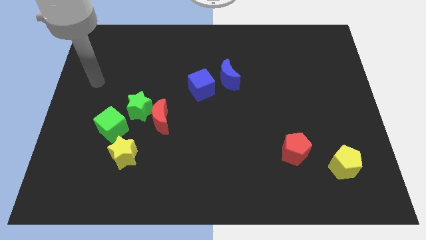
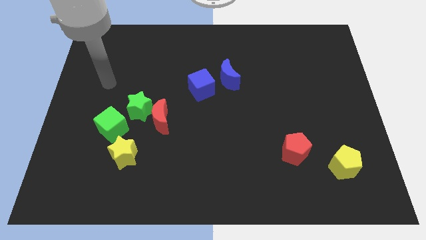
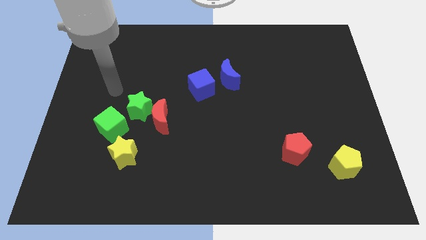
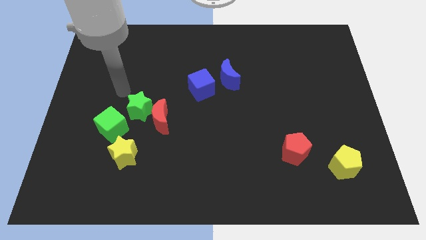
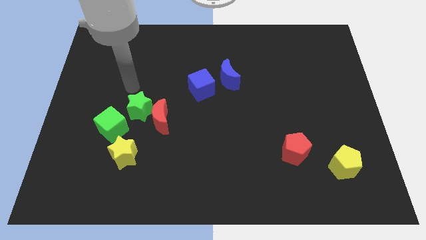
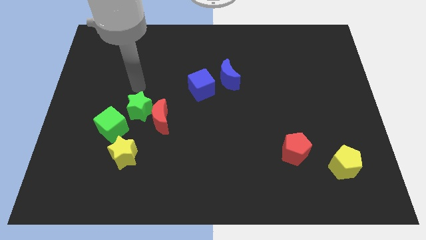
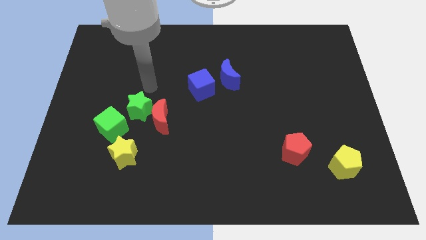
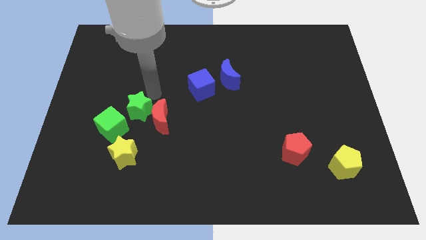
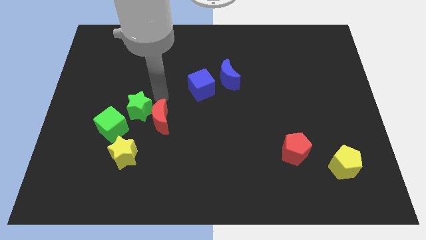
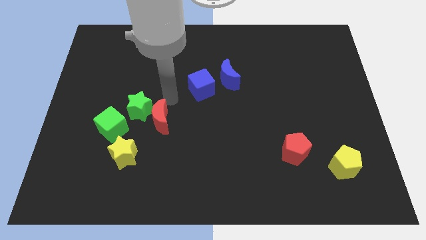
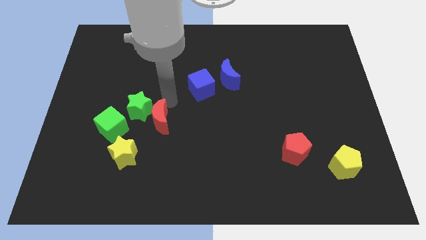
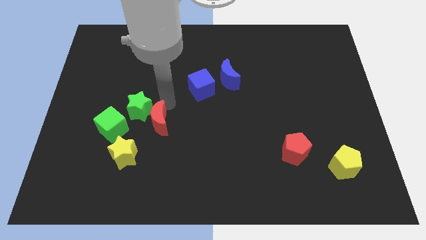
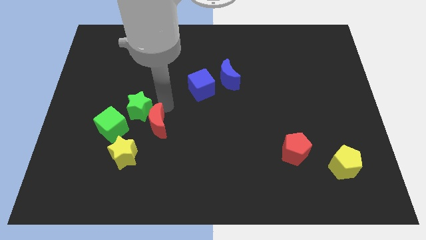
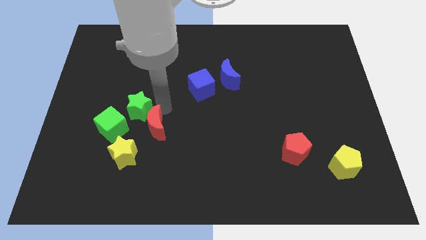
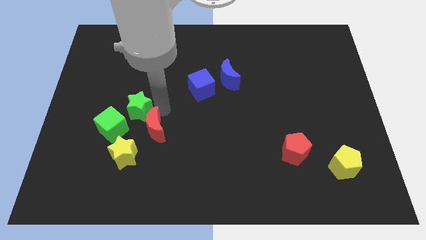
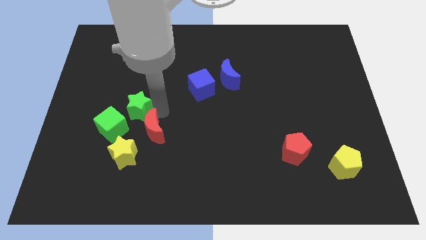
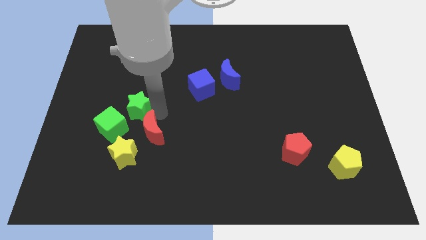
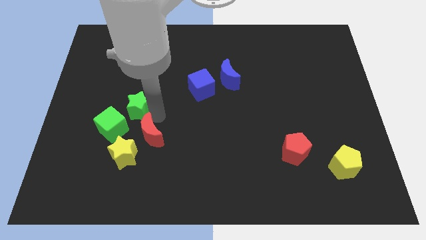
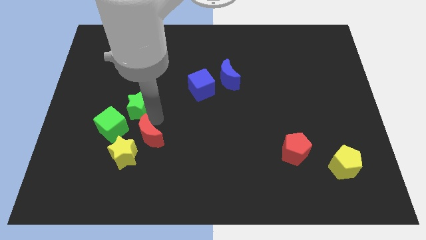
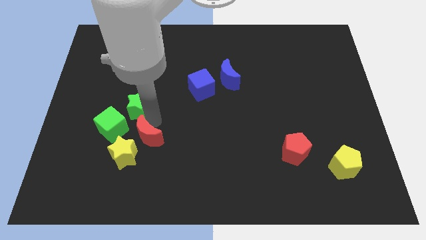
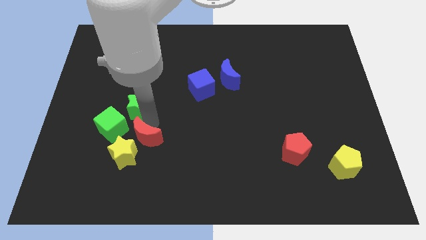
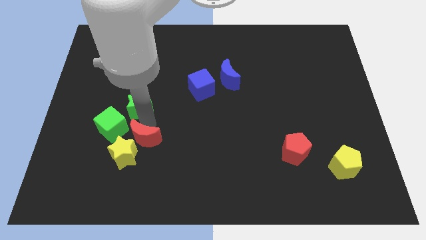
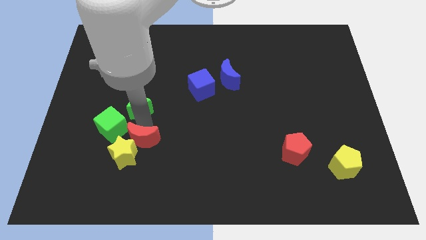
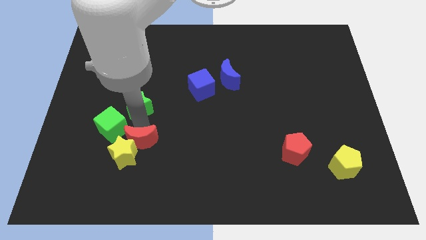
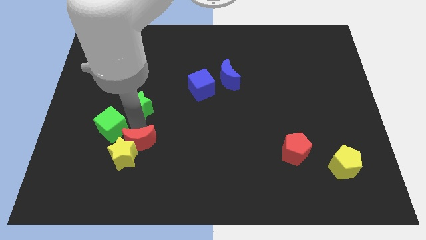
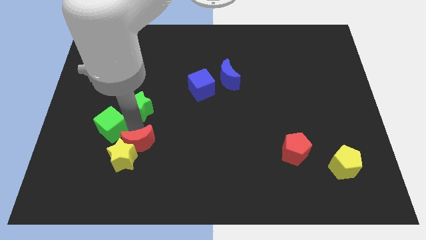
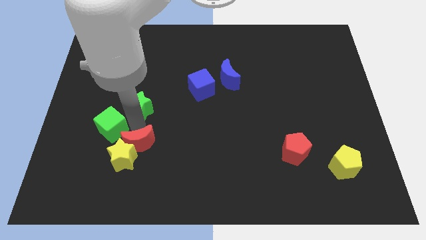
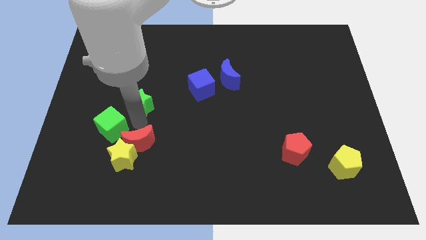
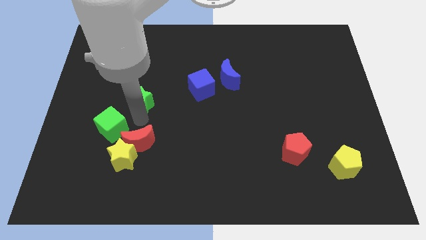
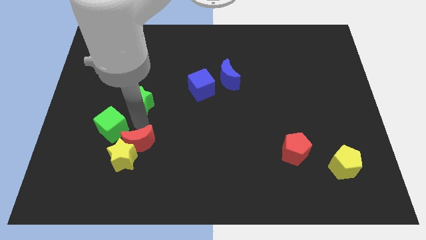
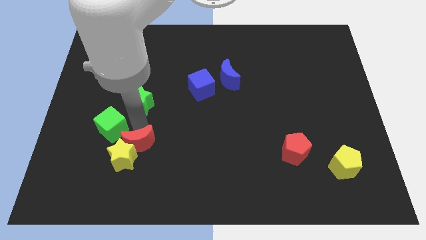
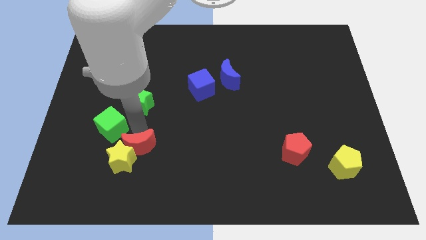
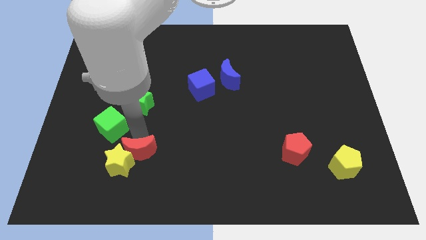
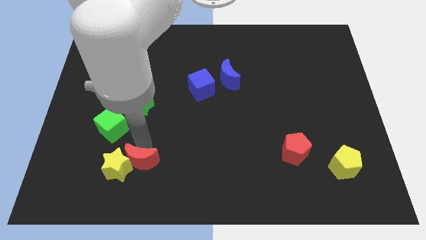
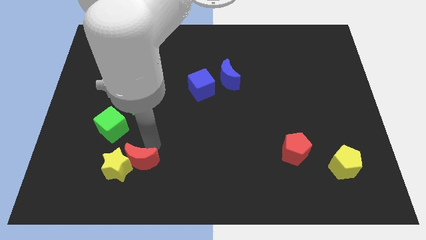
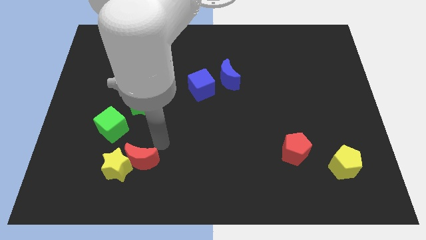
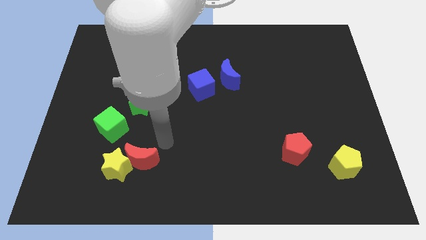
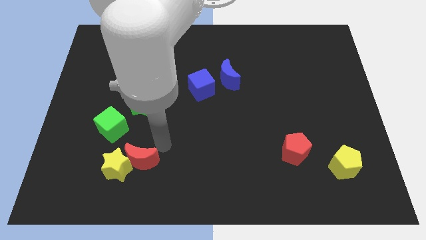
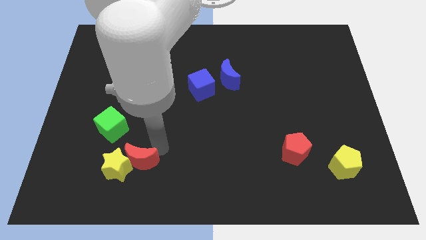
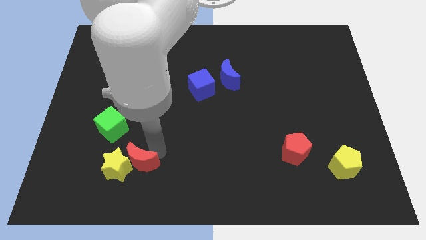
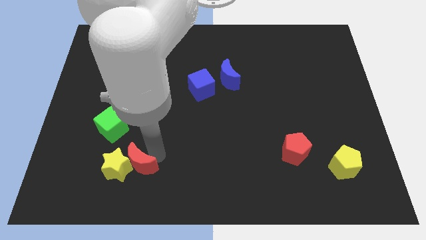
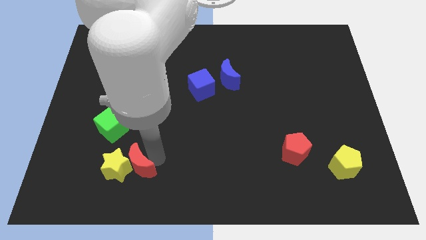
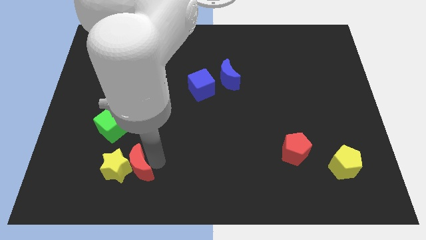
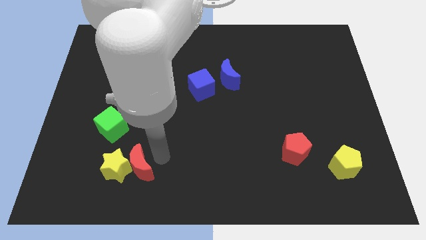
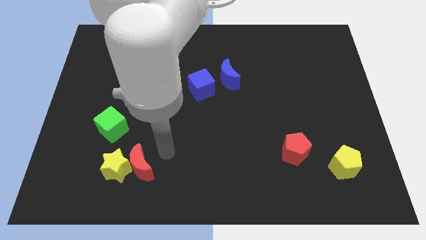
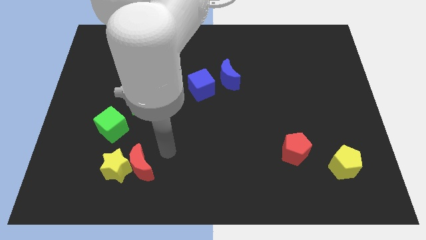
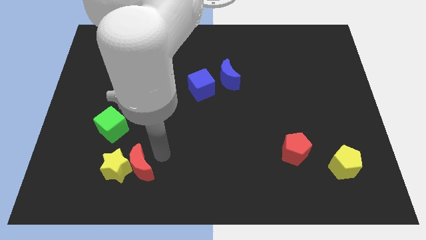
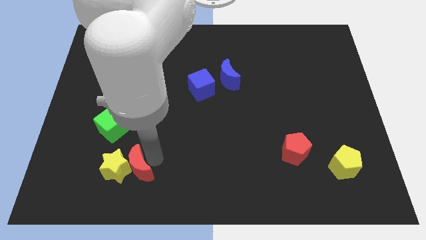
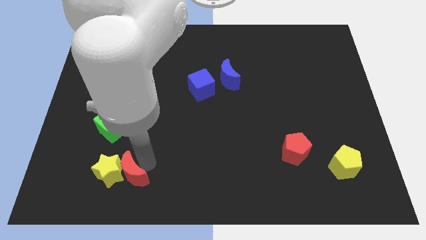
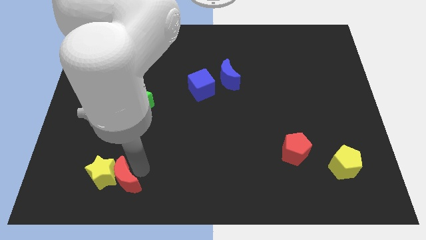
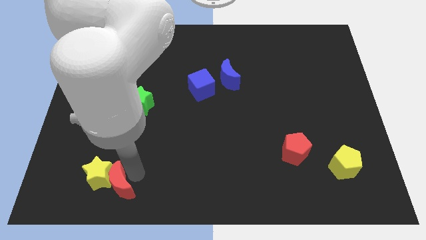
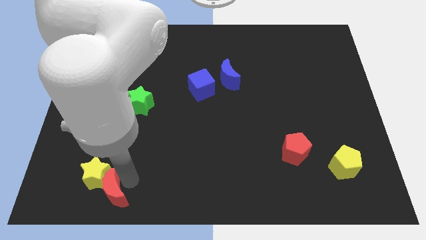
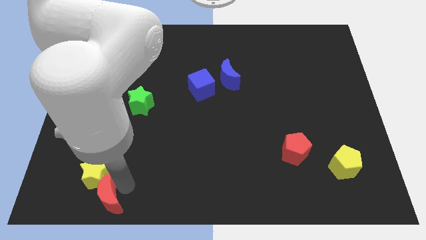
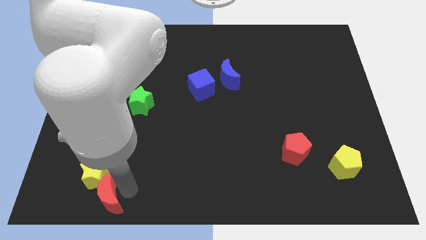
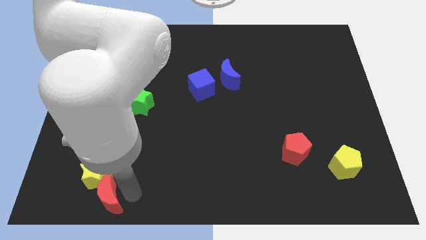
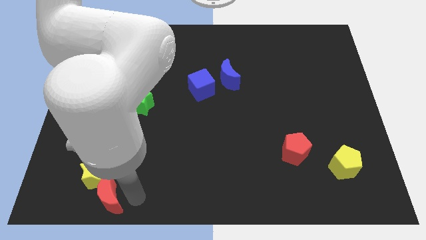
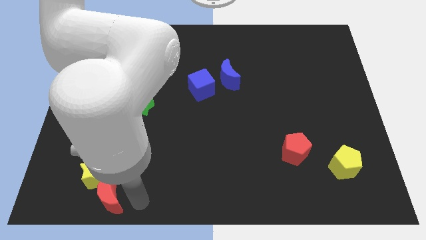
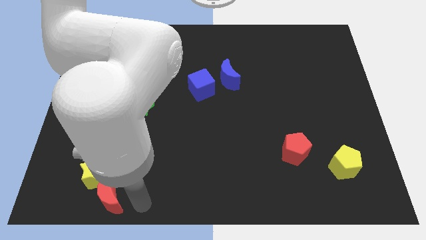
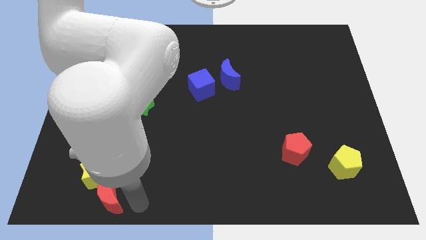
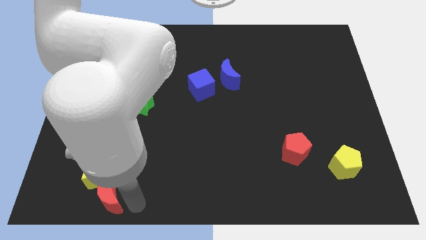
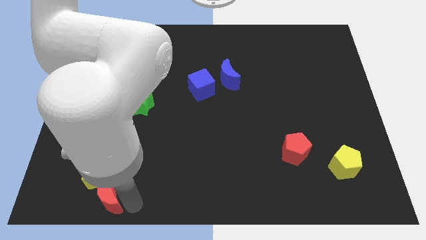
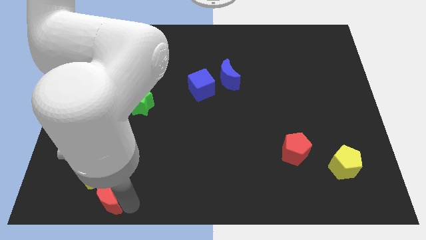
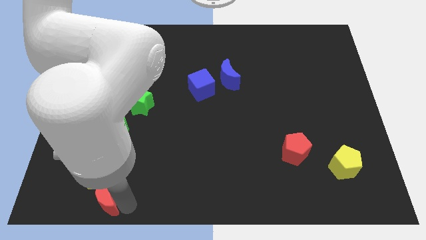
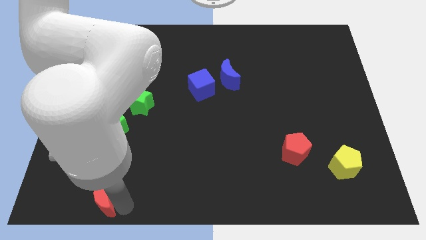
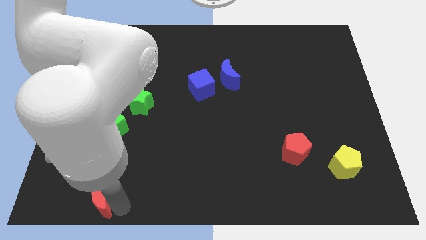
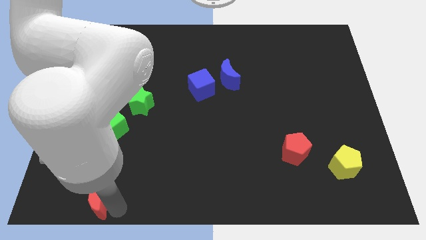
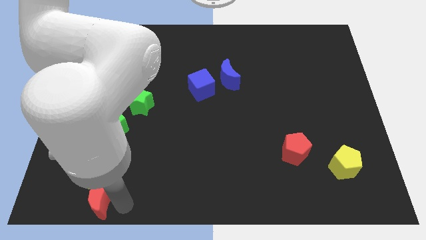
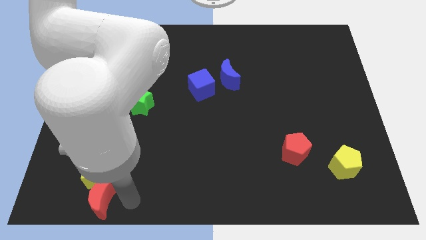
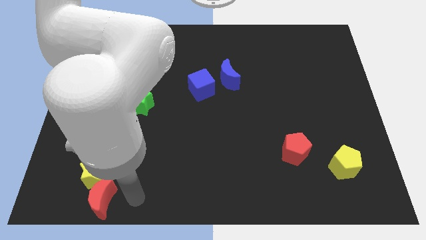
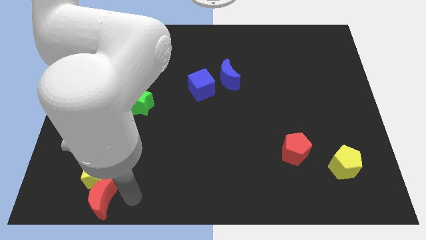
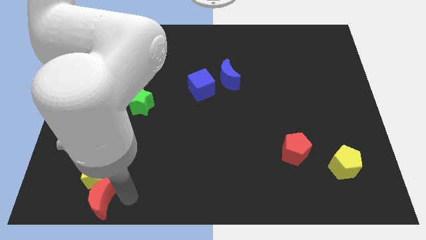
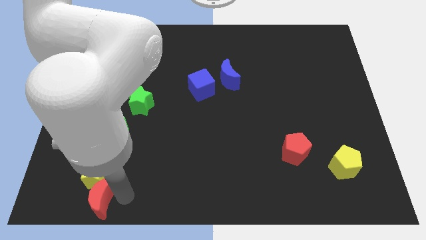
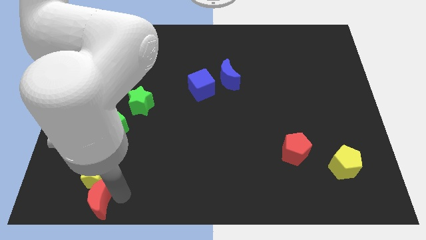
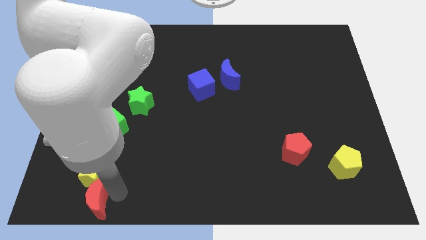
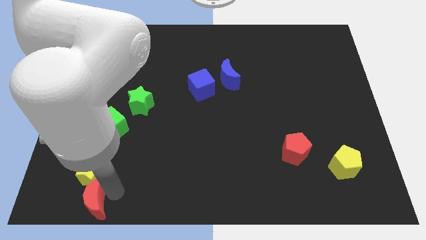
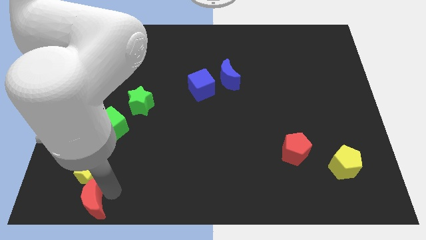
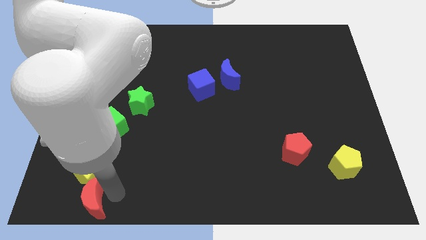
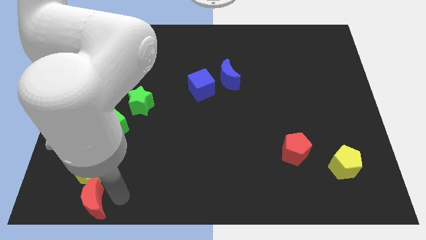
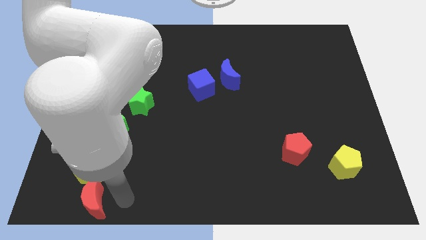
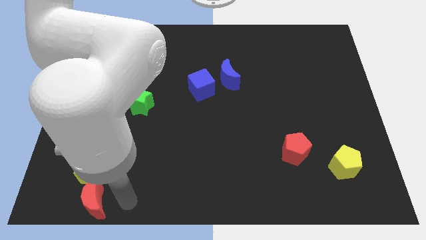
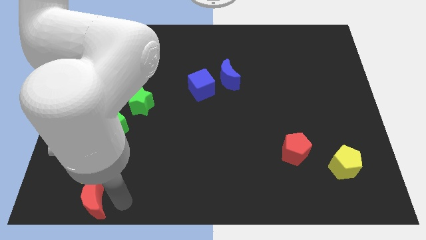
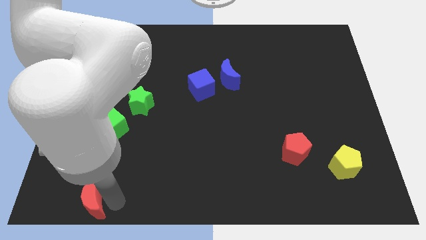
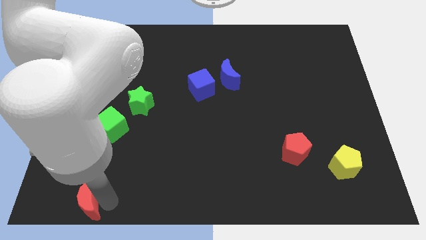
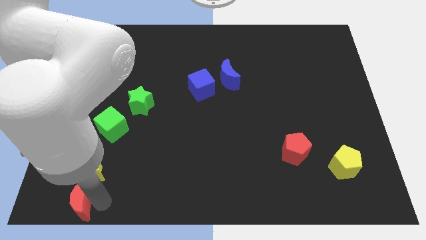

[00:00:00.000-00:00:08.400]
put the red moon to the bottom left corner
